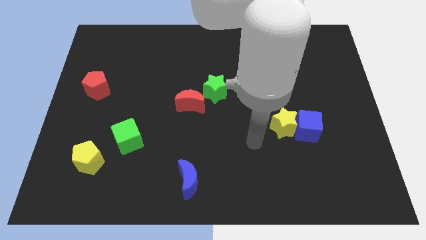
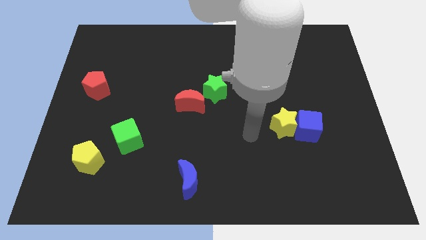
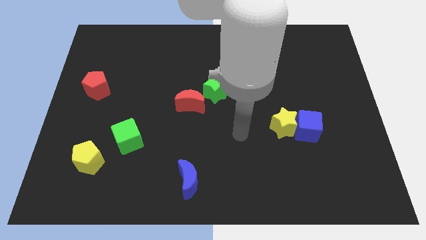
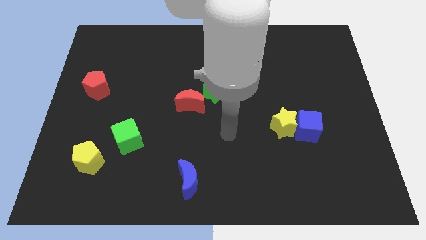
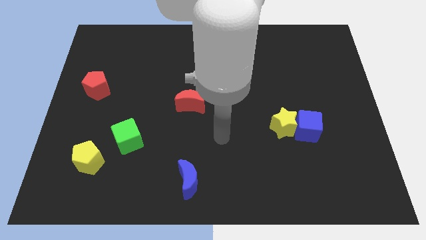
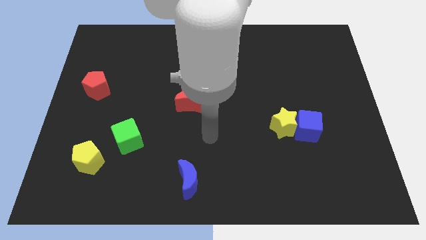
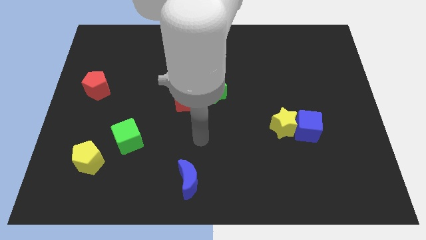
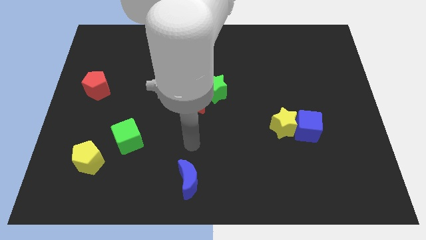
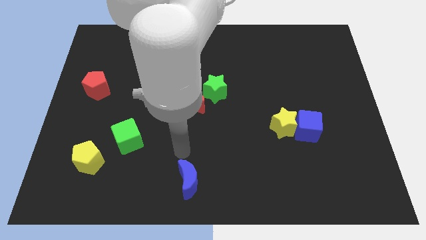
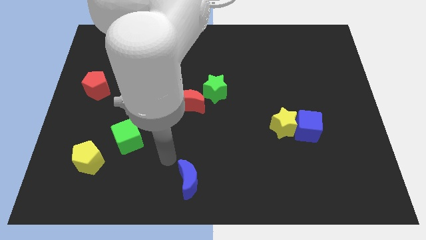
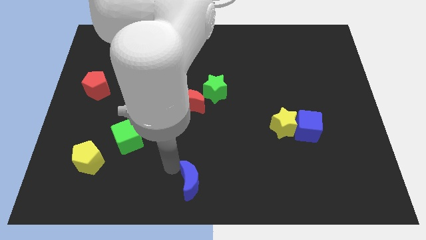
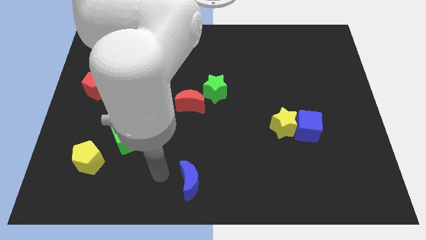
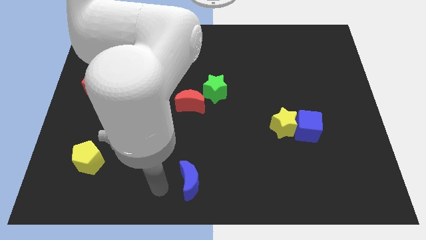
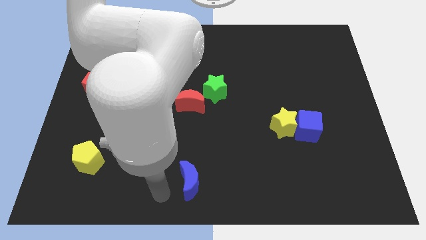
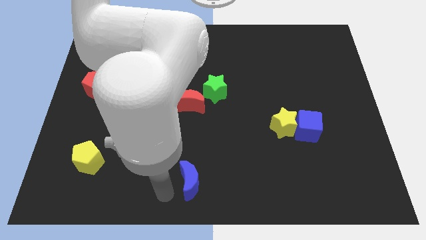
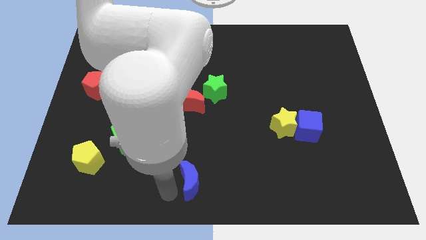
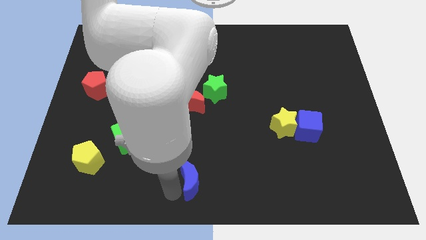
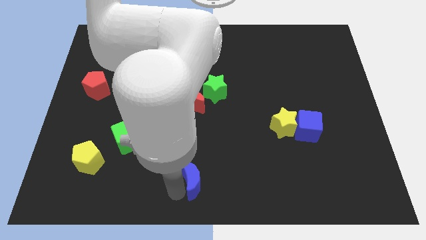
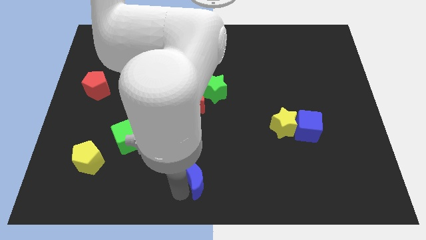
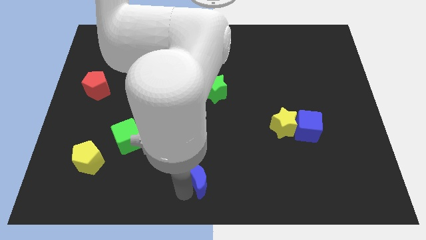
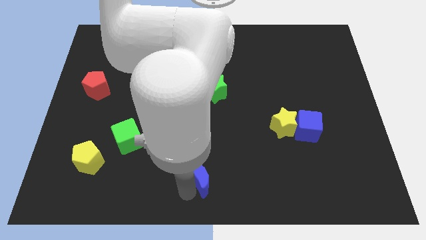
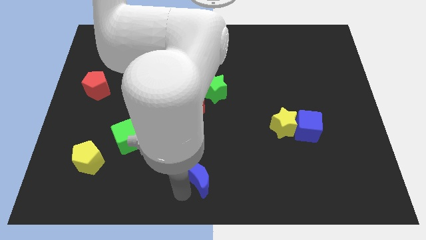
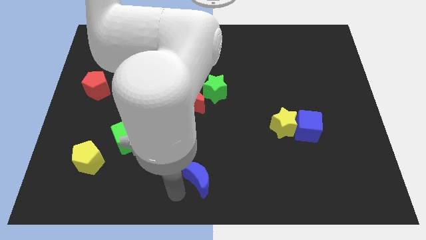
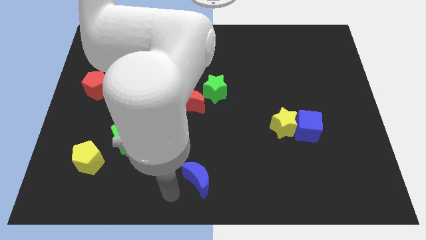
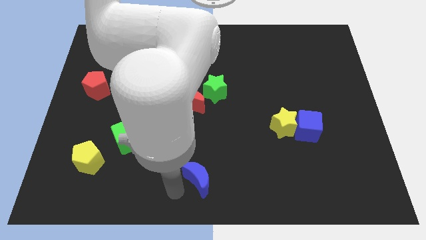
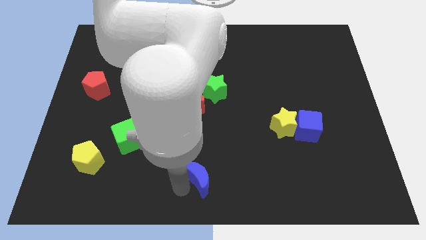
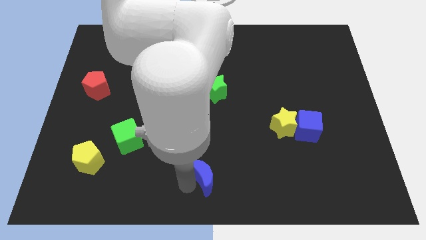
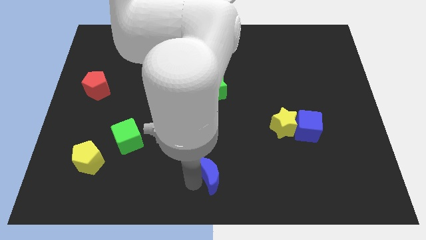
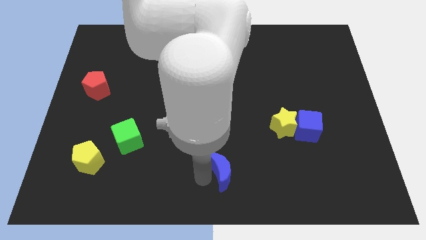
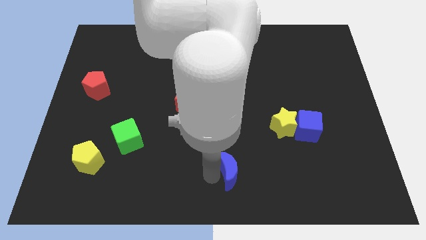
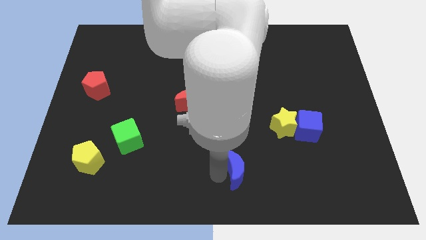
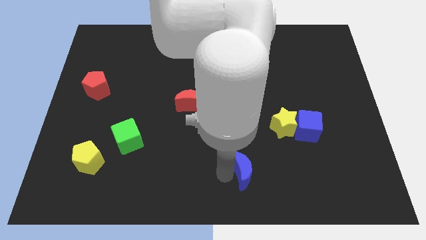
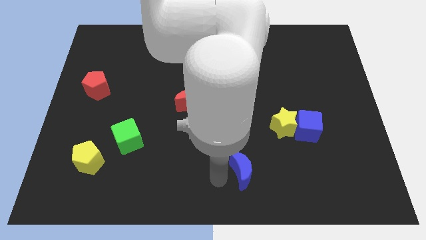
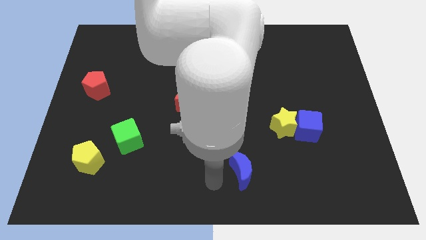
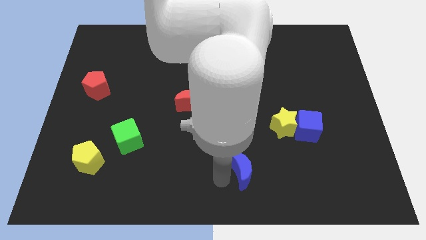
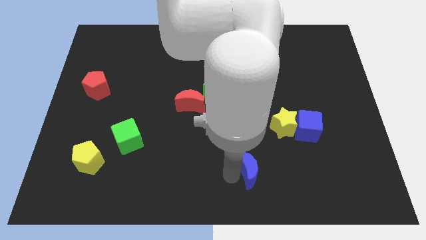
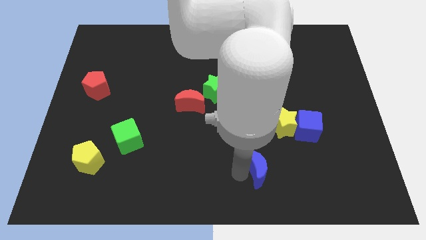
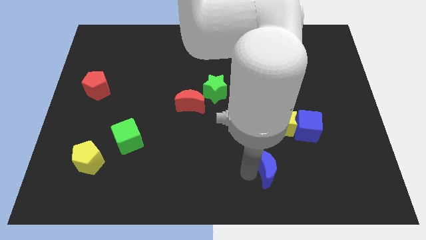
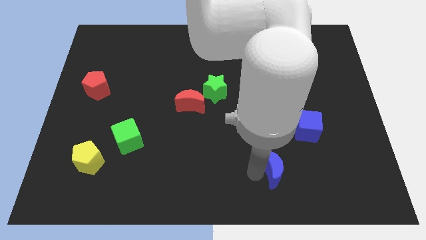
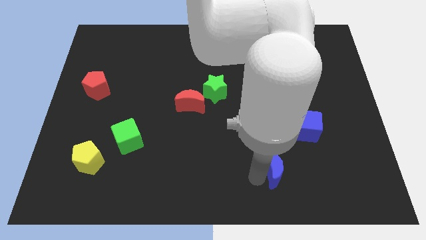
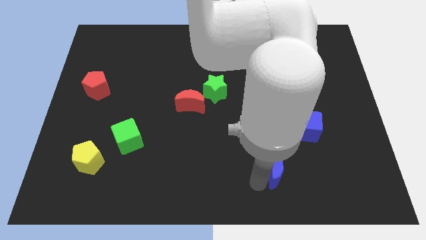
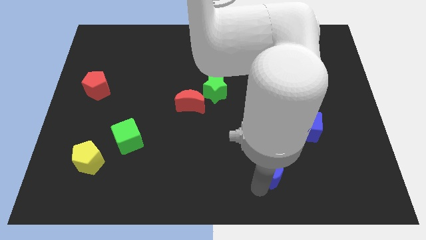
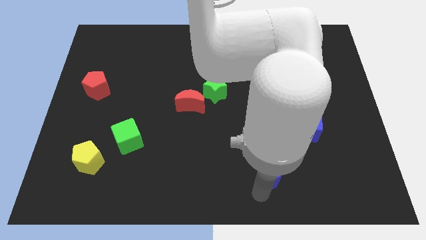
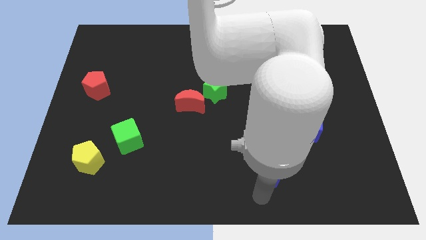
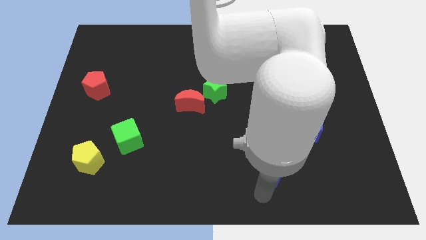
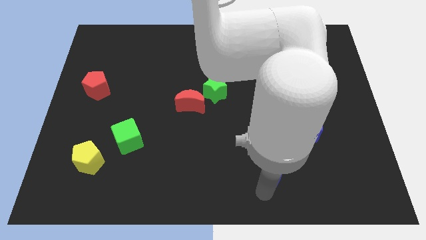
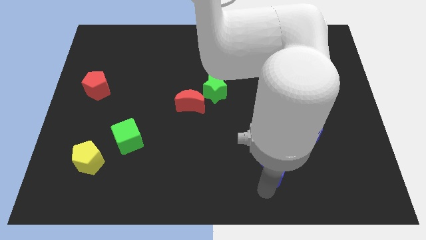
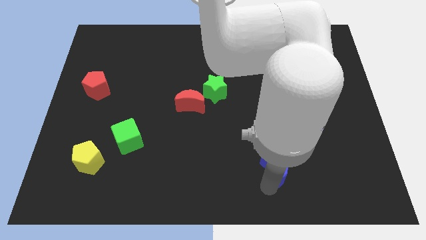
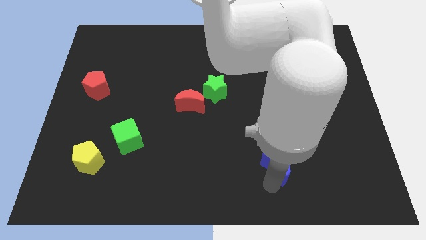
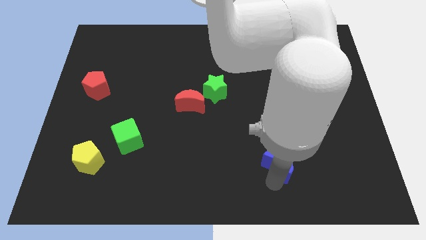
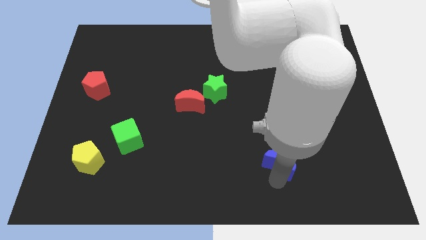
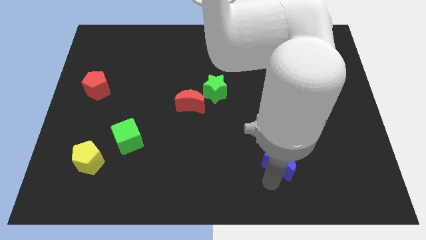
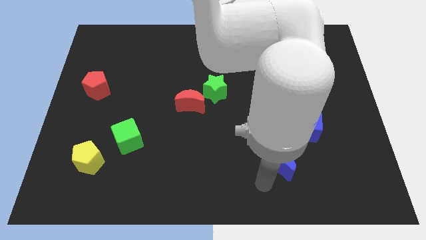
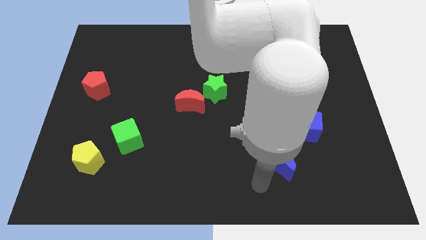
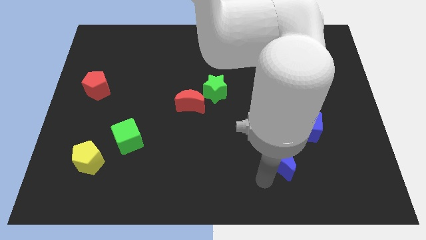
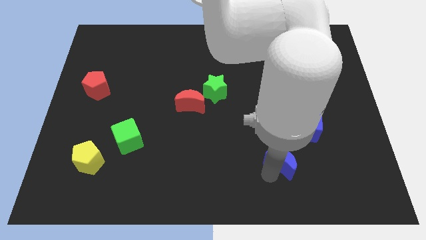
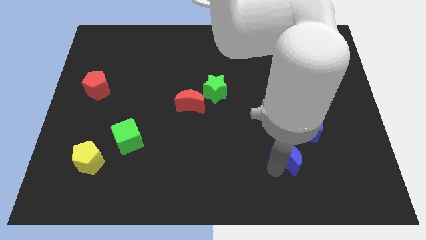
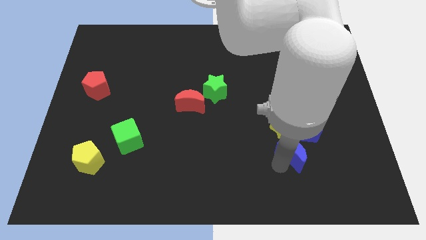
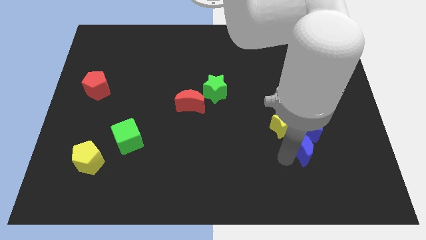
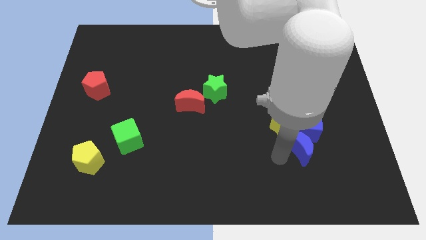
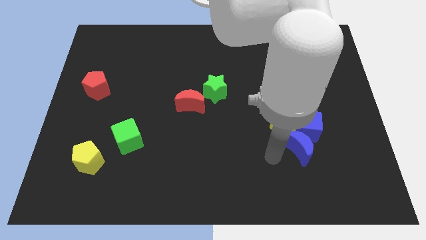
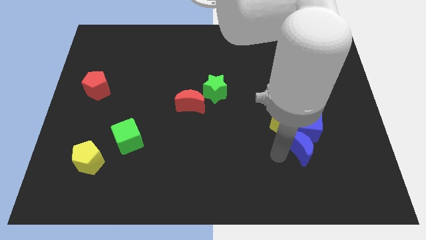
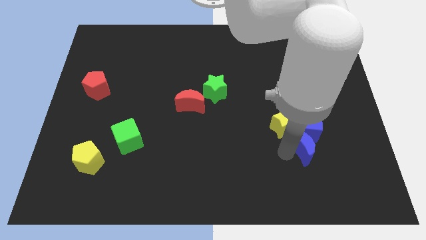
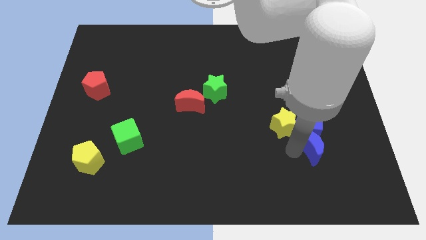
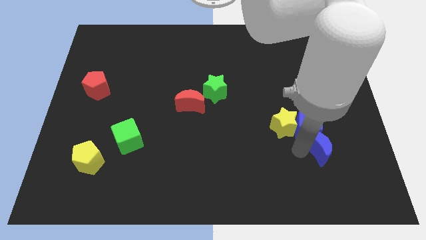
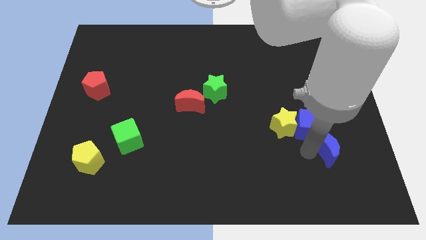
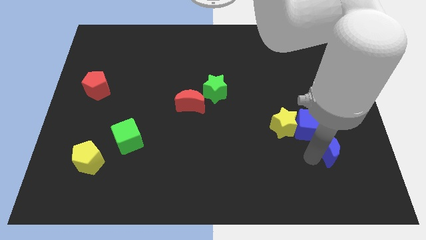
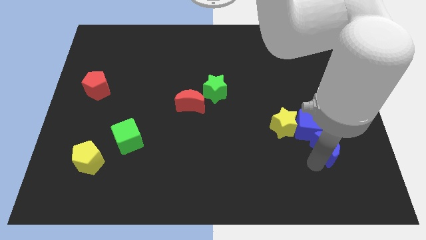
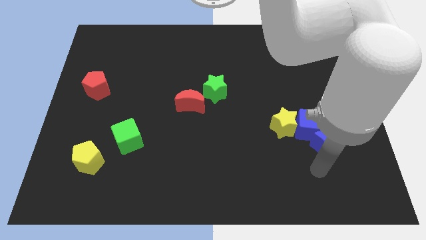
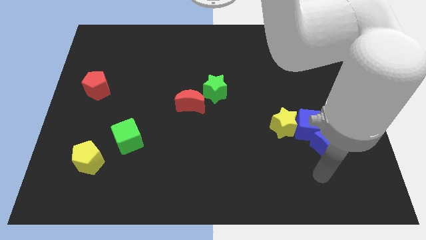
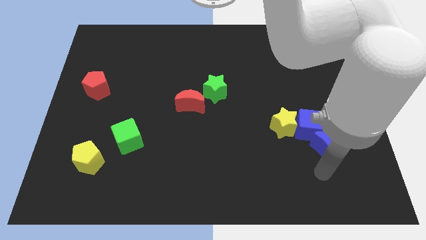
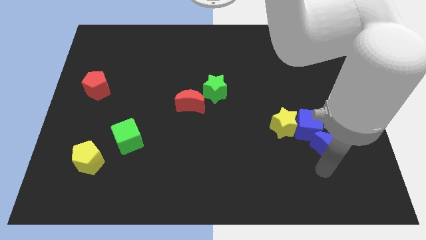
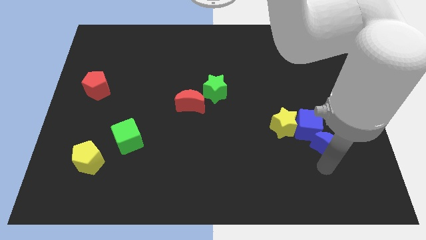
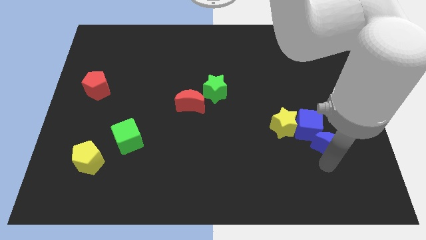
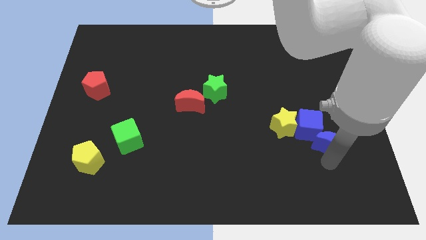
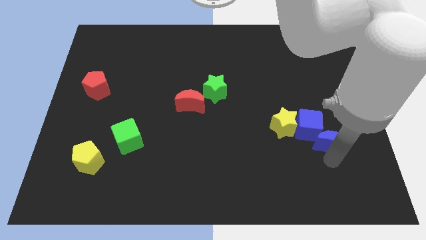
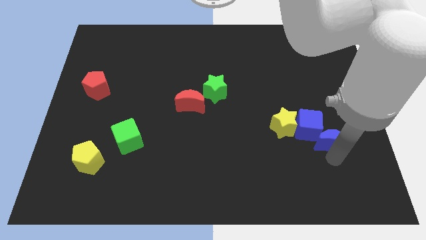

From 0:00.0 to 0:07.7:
move the blue moon just right of the yellow star

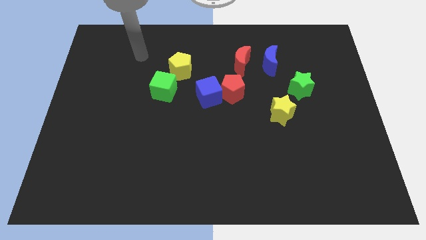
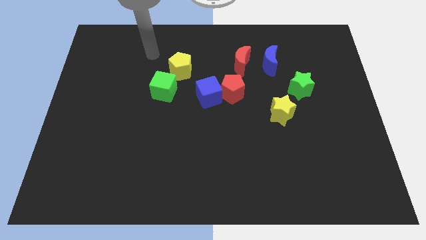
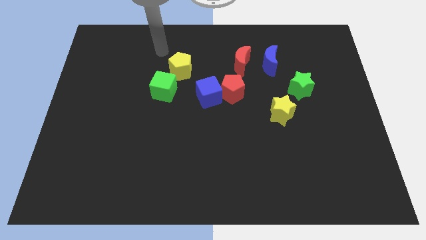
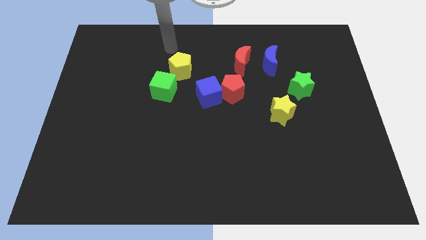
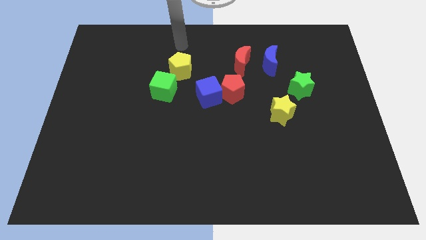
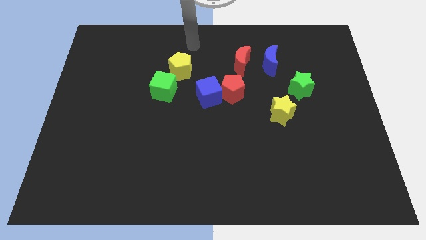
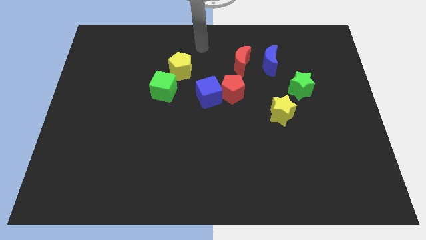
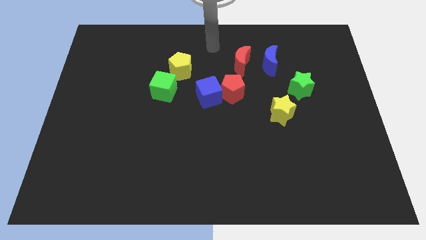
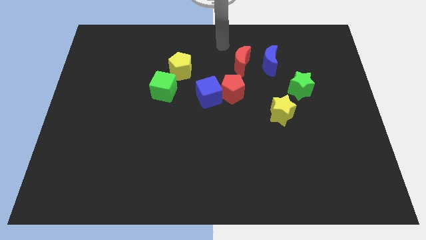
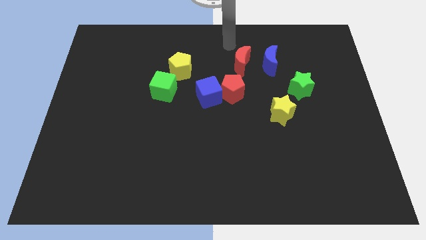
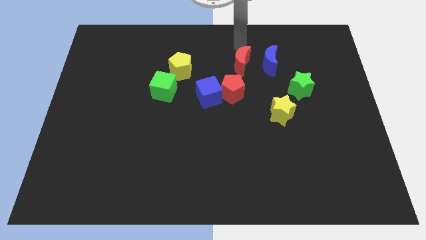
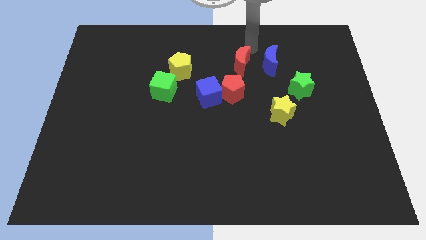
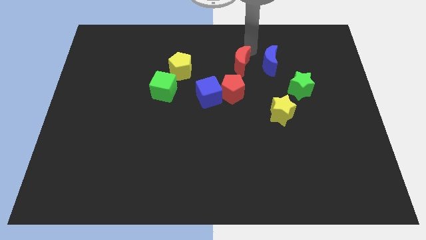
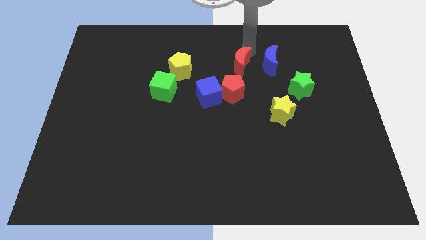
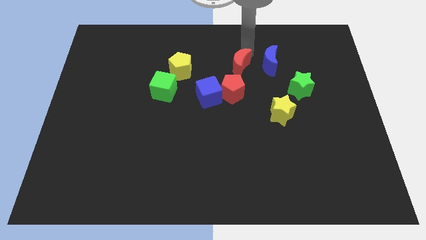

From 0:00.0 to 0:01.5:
put the red moon diagonally up and to the right of the blue cube
